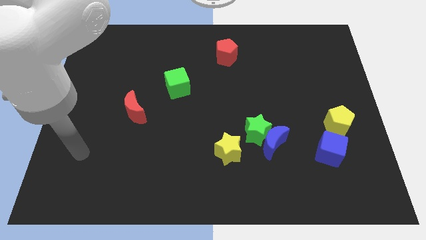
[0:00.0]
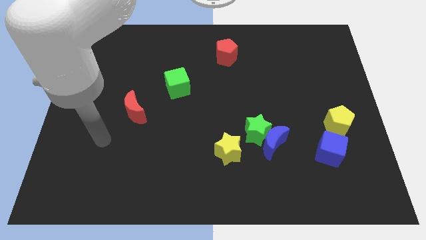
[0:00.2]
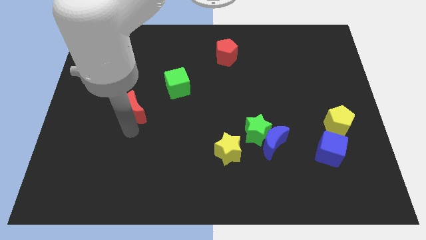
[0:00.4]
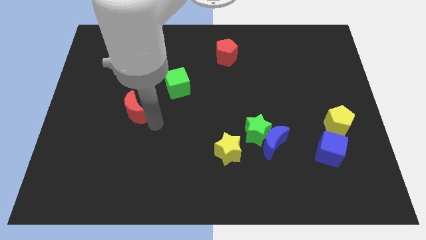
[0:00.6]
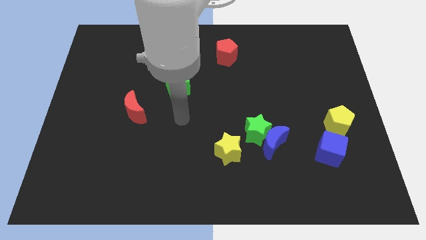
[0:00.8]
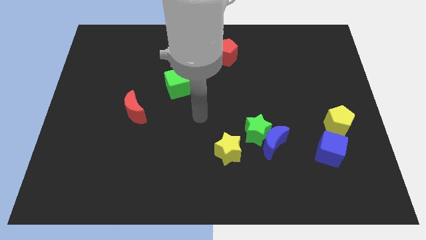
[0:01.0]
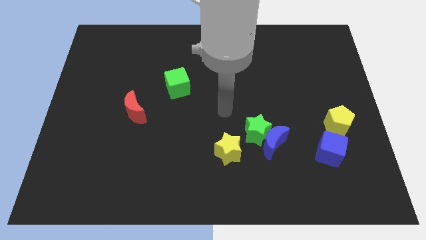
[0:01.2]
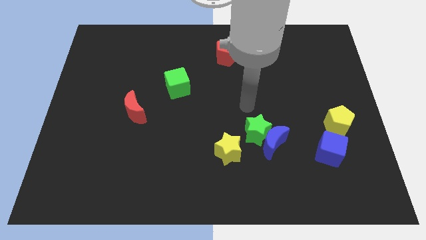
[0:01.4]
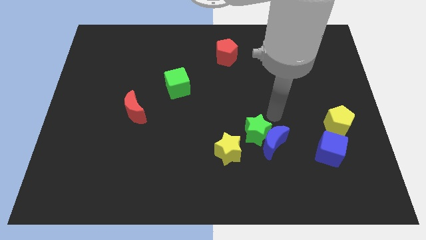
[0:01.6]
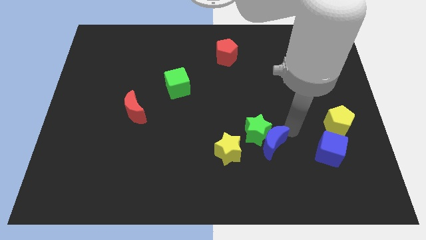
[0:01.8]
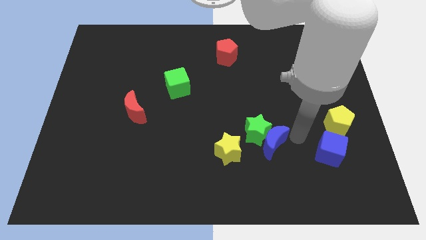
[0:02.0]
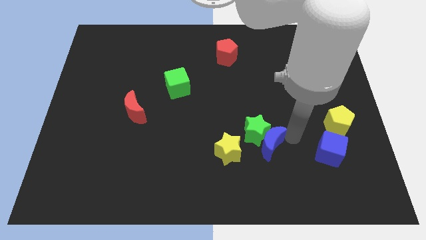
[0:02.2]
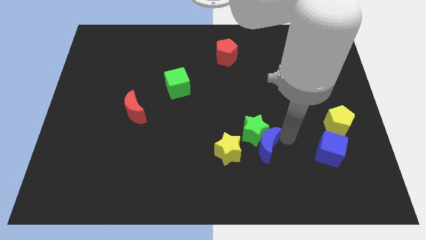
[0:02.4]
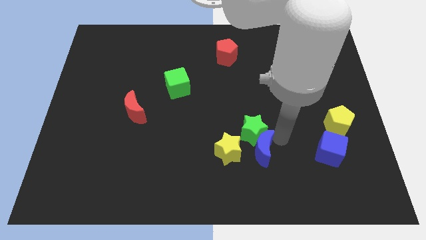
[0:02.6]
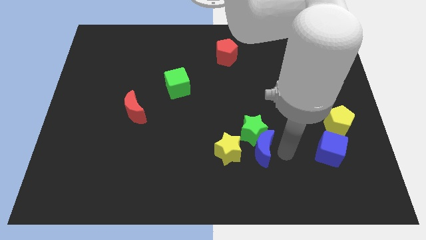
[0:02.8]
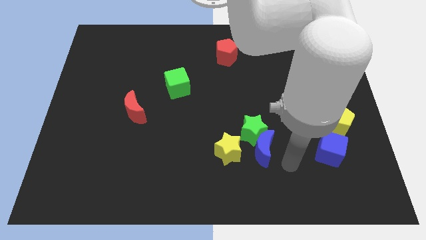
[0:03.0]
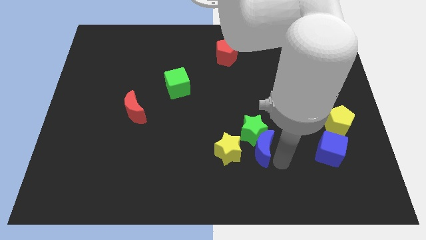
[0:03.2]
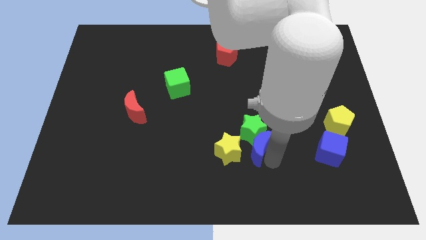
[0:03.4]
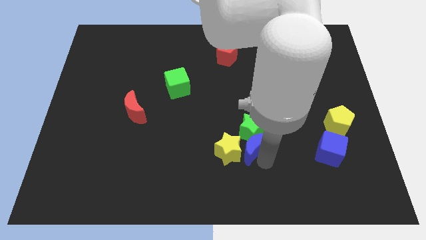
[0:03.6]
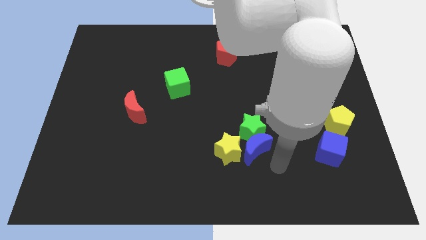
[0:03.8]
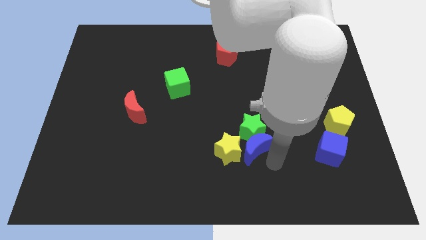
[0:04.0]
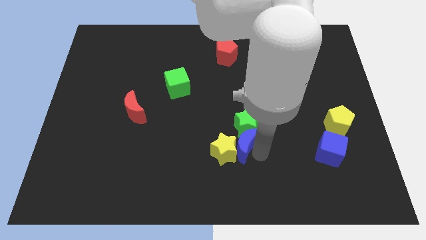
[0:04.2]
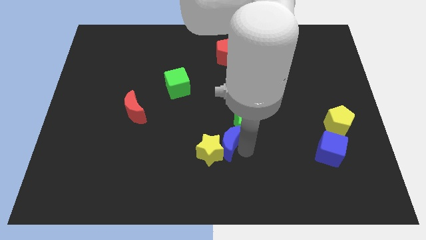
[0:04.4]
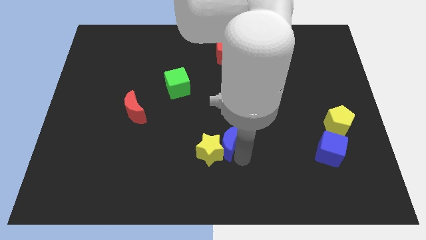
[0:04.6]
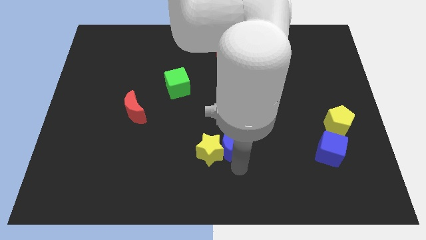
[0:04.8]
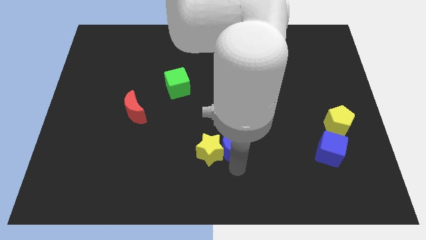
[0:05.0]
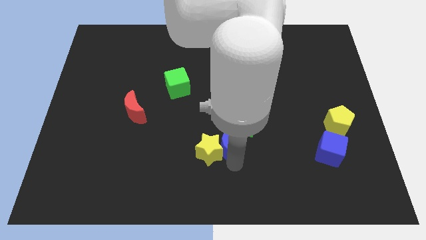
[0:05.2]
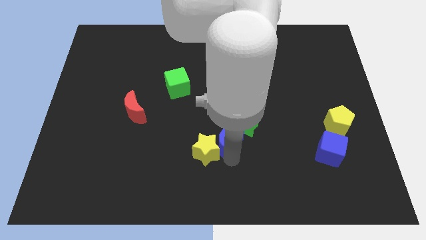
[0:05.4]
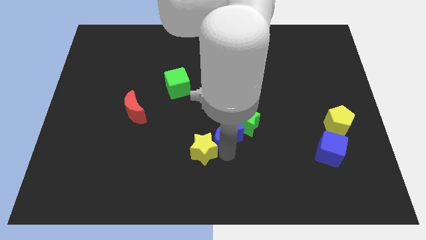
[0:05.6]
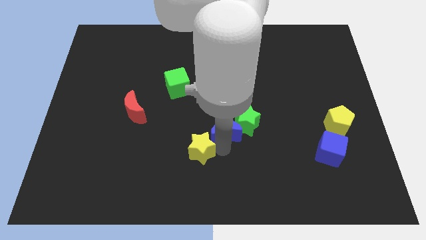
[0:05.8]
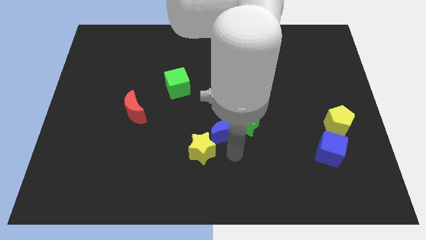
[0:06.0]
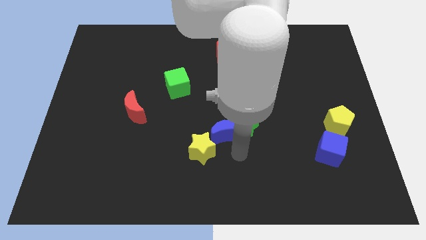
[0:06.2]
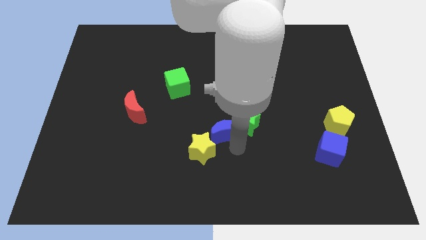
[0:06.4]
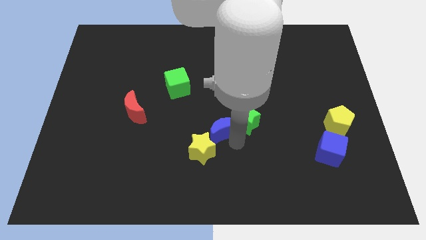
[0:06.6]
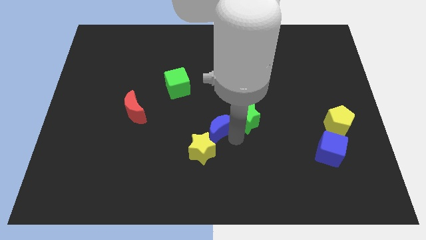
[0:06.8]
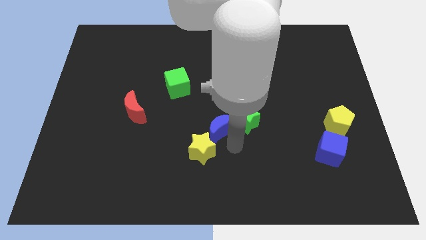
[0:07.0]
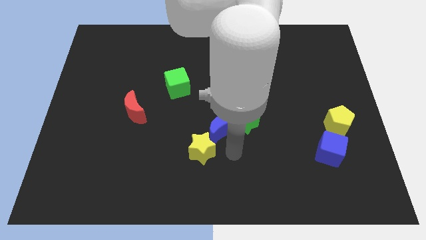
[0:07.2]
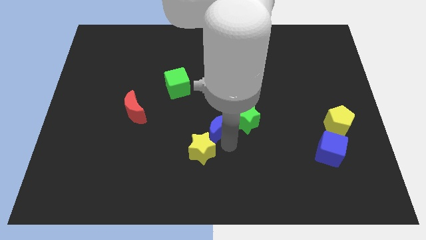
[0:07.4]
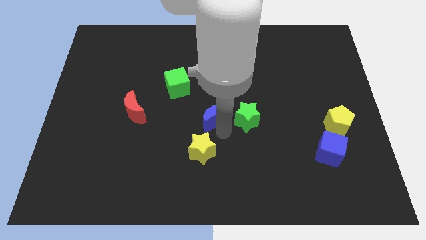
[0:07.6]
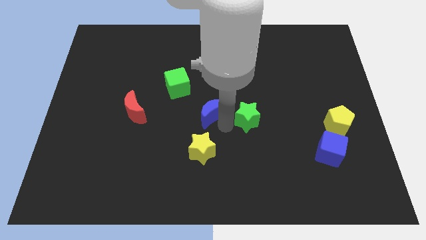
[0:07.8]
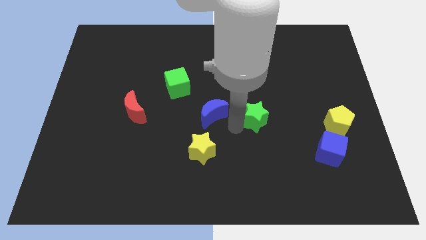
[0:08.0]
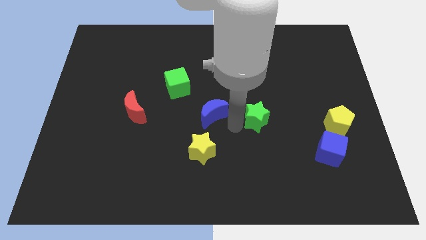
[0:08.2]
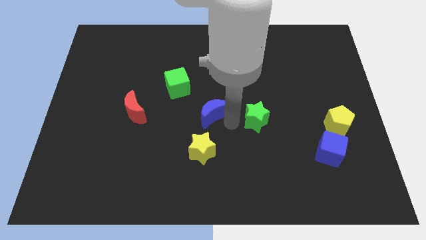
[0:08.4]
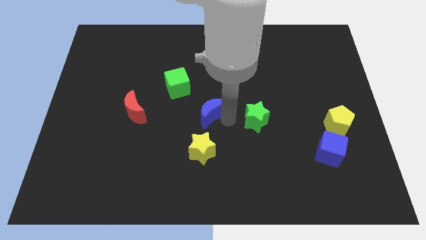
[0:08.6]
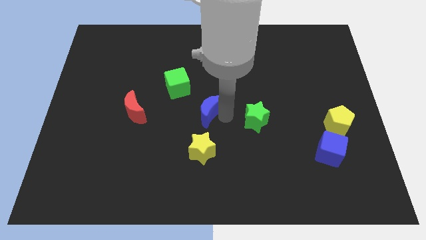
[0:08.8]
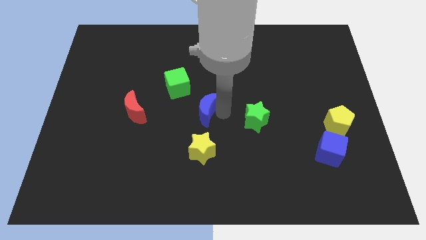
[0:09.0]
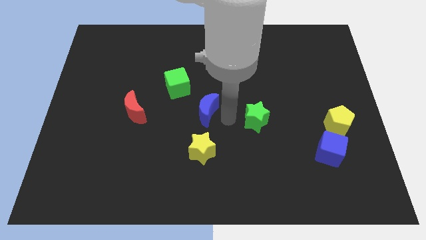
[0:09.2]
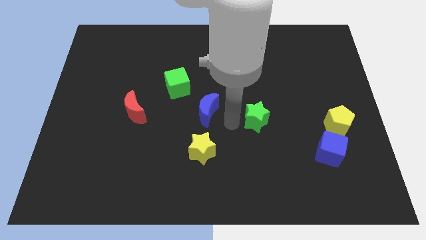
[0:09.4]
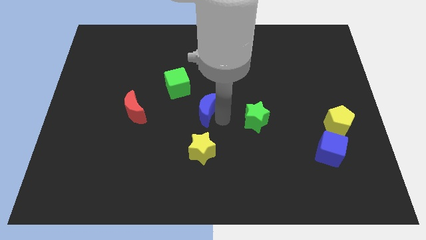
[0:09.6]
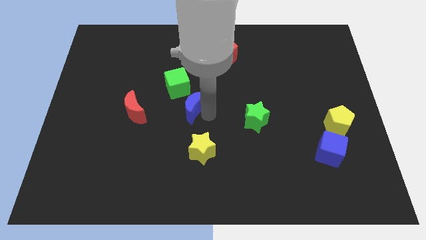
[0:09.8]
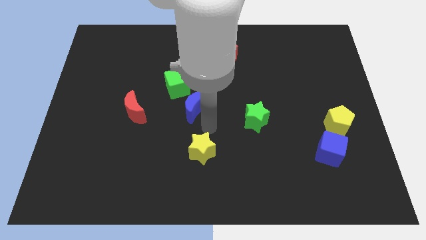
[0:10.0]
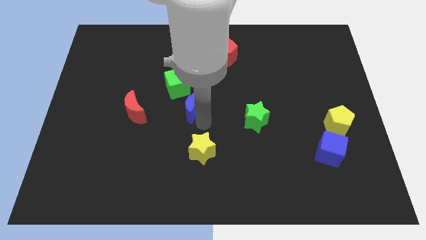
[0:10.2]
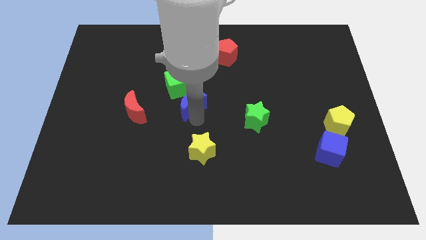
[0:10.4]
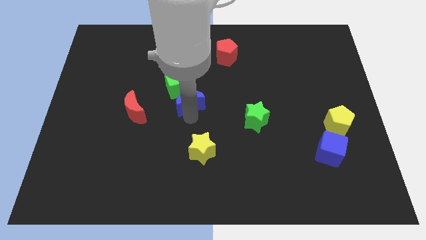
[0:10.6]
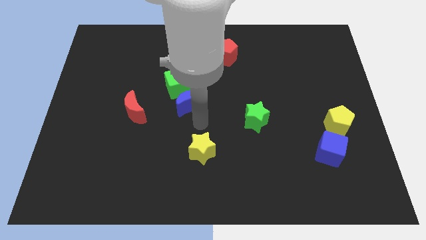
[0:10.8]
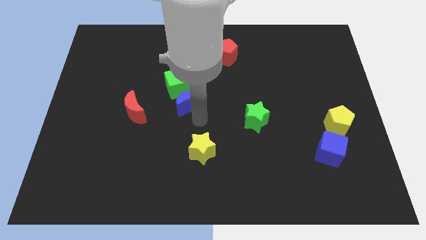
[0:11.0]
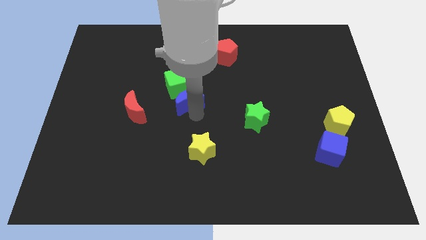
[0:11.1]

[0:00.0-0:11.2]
put the blue moon close to the green cube

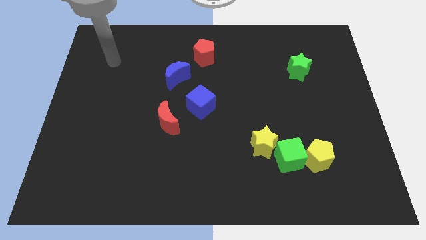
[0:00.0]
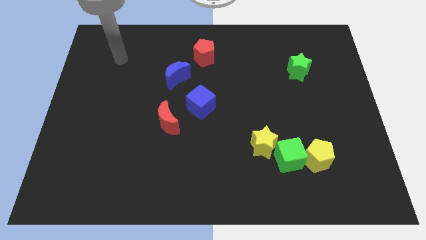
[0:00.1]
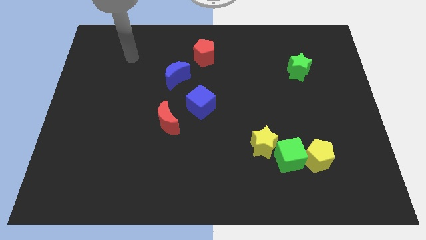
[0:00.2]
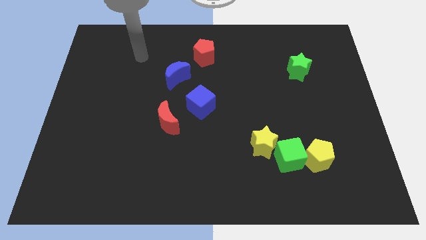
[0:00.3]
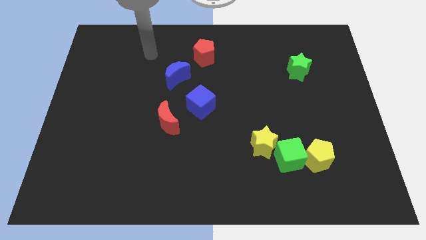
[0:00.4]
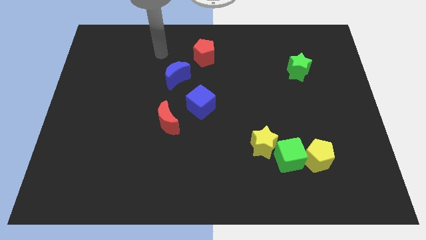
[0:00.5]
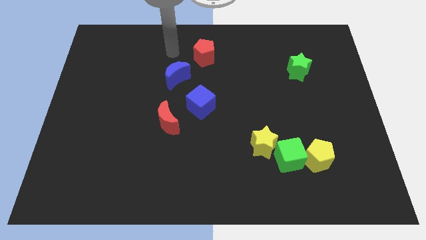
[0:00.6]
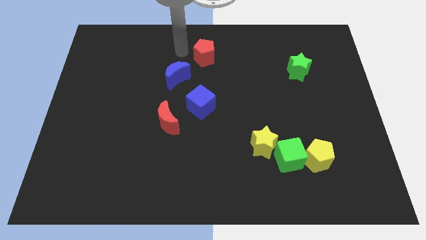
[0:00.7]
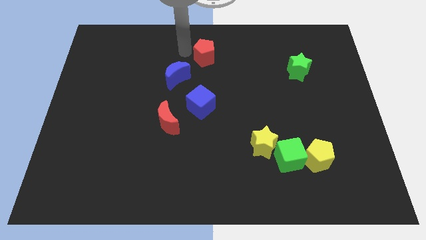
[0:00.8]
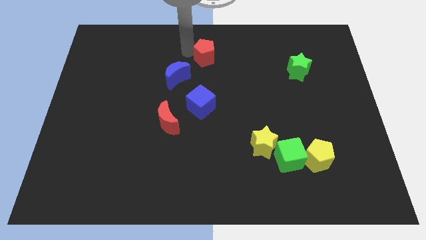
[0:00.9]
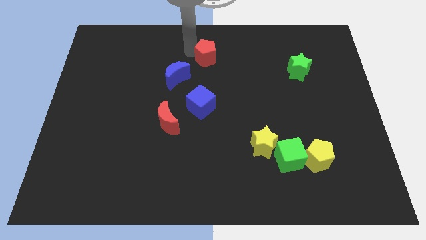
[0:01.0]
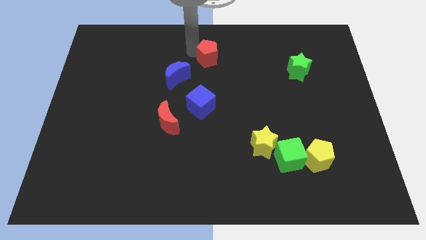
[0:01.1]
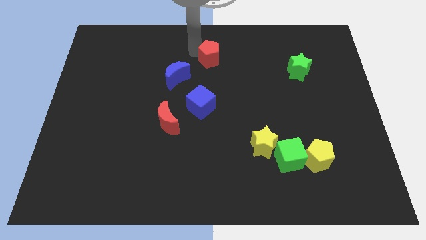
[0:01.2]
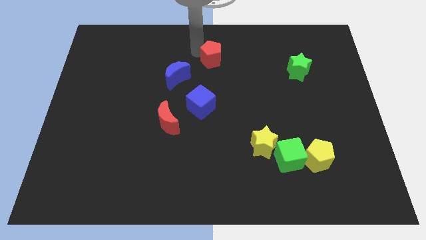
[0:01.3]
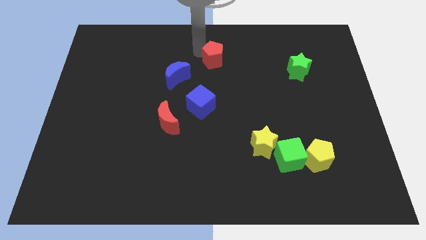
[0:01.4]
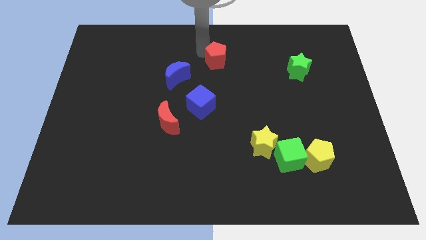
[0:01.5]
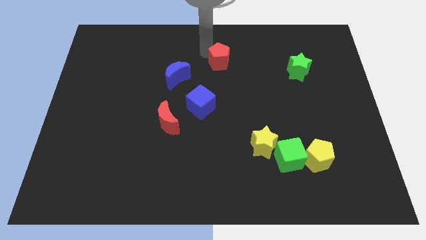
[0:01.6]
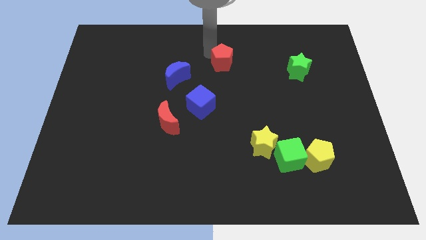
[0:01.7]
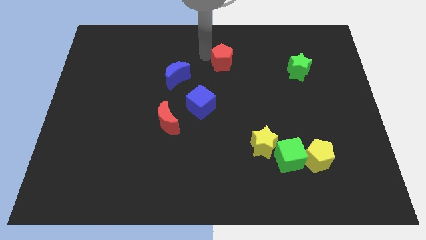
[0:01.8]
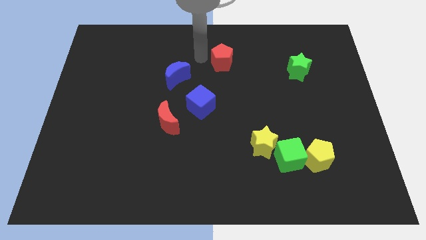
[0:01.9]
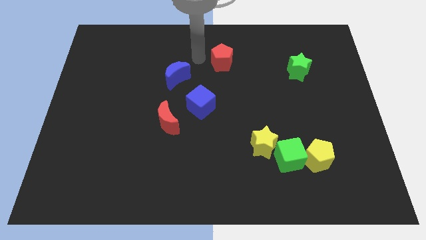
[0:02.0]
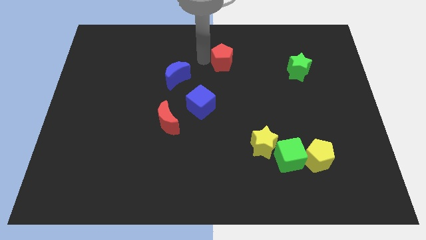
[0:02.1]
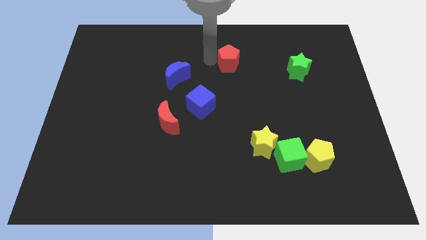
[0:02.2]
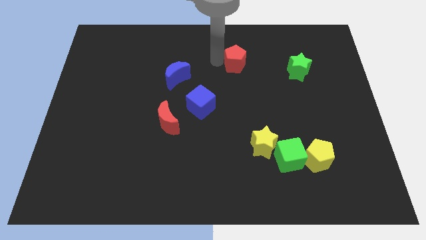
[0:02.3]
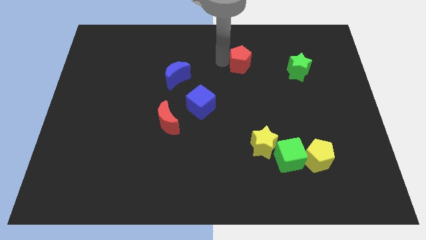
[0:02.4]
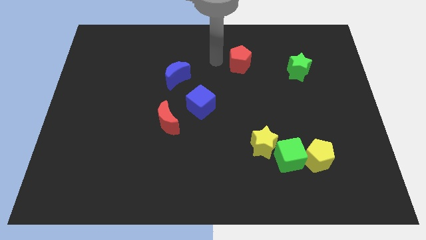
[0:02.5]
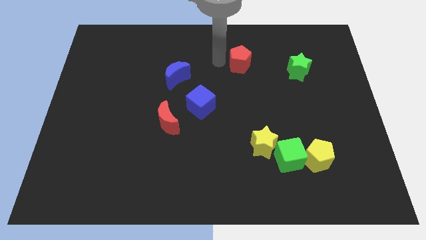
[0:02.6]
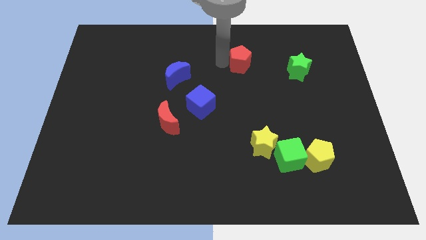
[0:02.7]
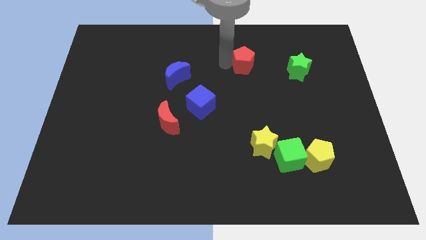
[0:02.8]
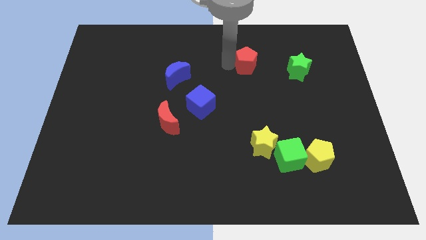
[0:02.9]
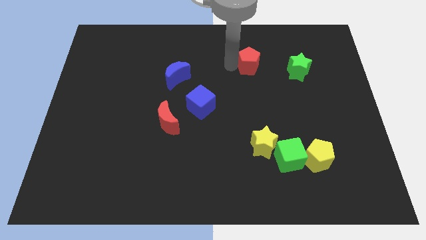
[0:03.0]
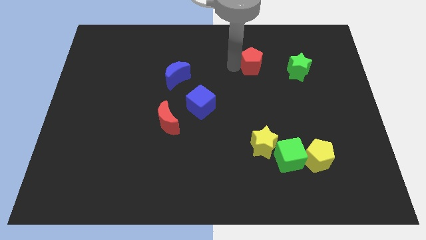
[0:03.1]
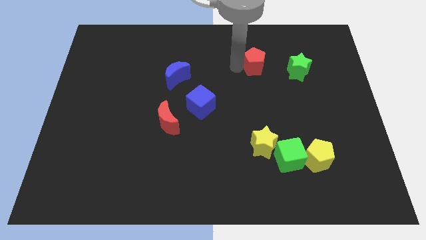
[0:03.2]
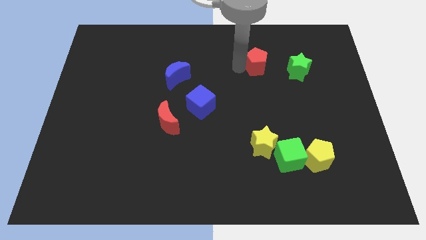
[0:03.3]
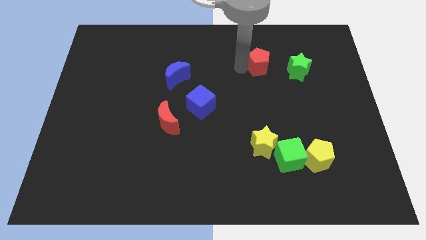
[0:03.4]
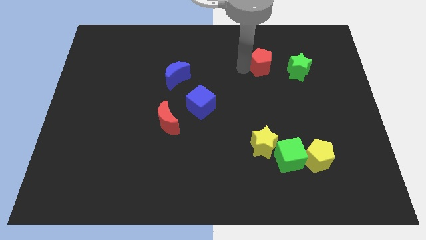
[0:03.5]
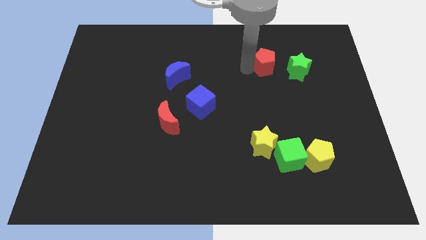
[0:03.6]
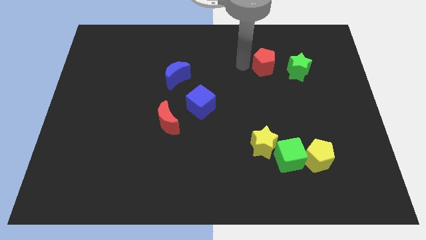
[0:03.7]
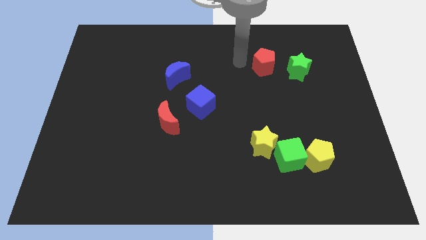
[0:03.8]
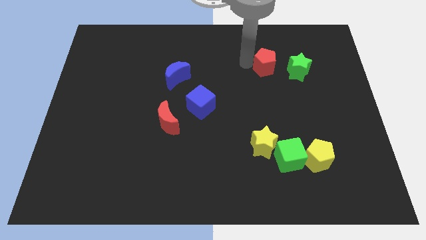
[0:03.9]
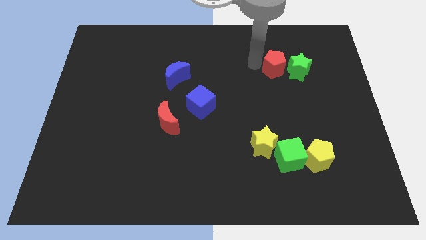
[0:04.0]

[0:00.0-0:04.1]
move the red pentagon to the green star
